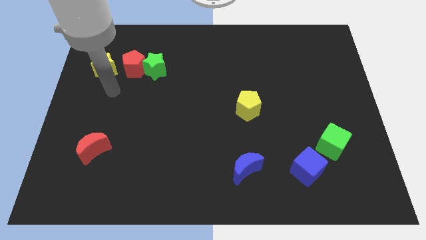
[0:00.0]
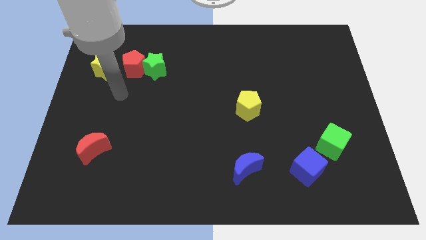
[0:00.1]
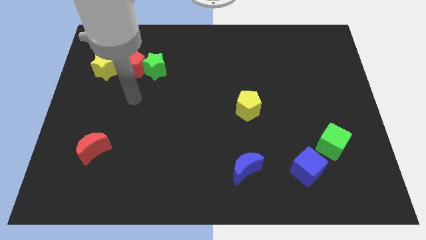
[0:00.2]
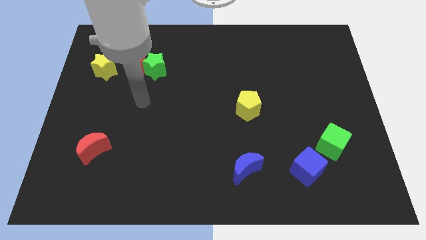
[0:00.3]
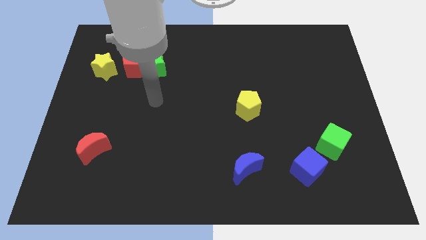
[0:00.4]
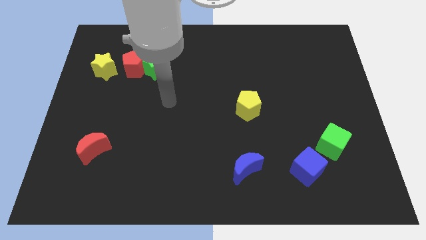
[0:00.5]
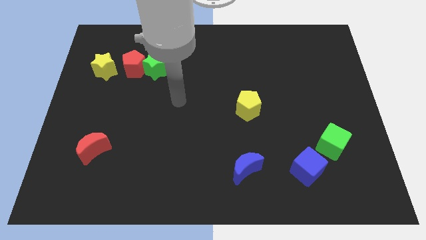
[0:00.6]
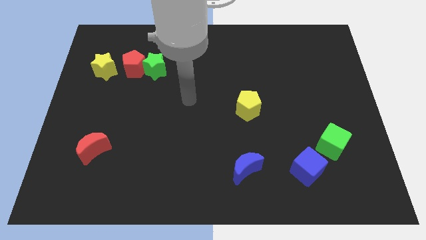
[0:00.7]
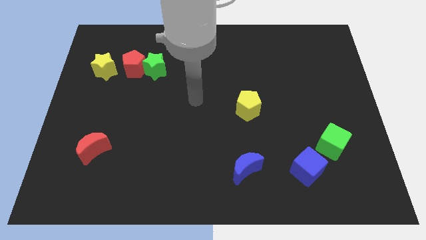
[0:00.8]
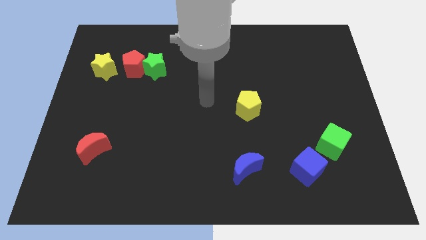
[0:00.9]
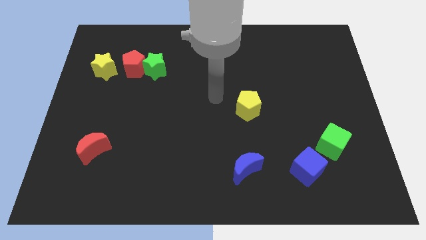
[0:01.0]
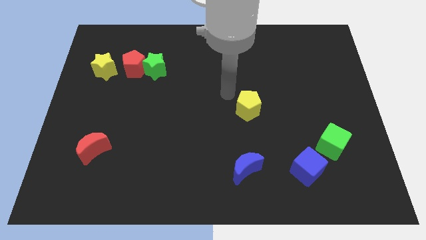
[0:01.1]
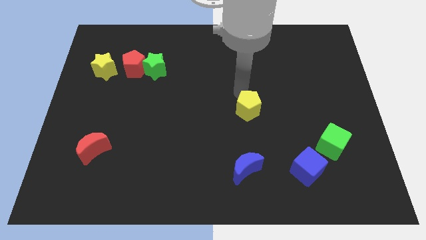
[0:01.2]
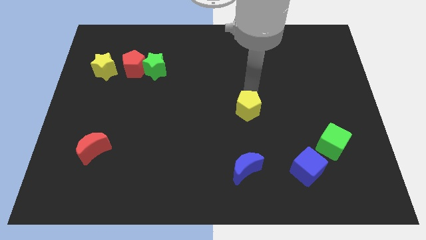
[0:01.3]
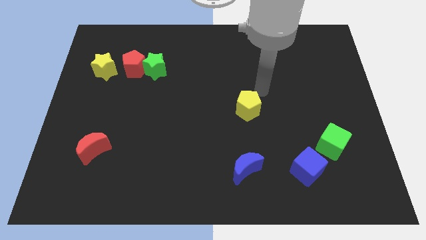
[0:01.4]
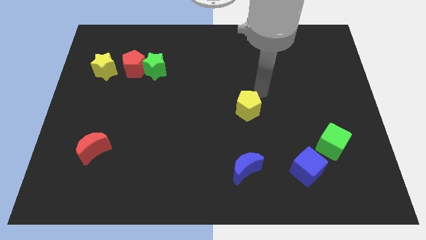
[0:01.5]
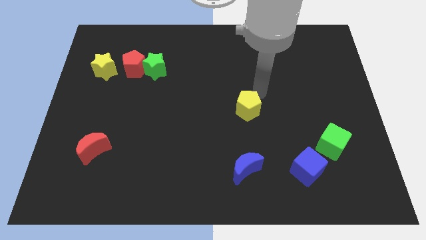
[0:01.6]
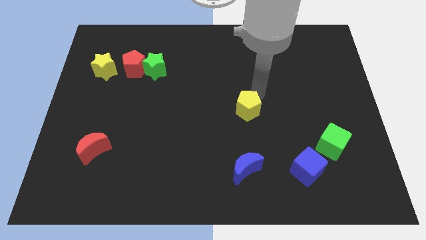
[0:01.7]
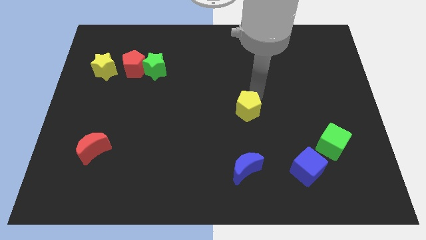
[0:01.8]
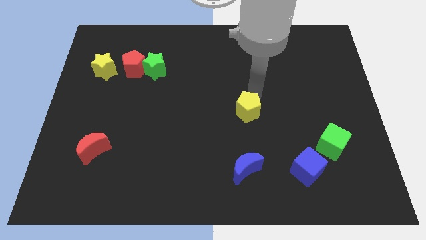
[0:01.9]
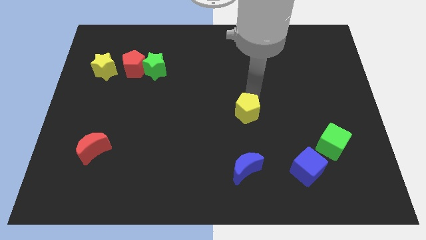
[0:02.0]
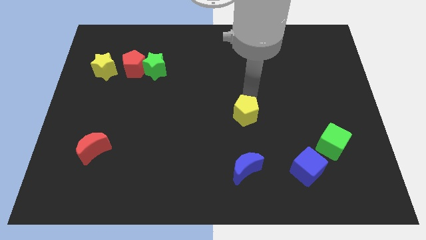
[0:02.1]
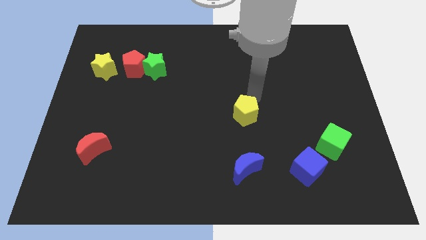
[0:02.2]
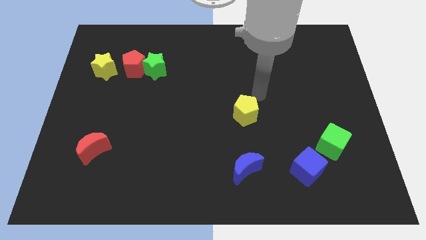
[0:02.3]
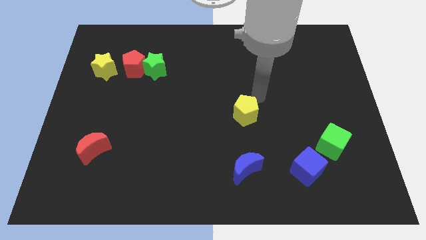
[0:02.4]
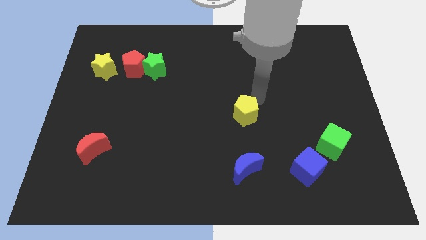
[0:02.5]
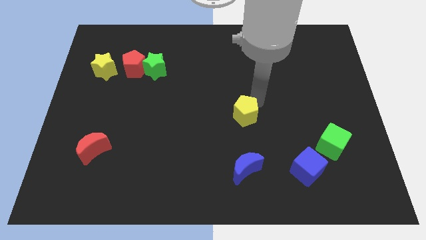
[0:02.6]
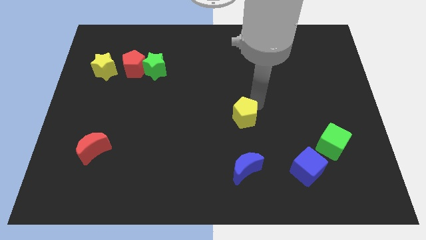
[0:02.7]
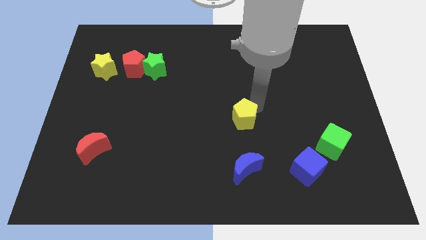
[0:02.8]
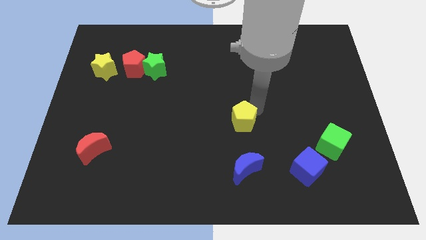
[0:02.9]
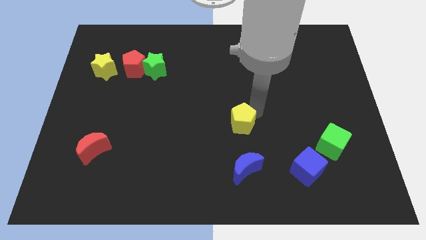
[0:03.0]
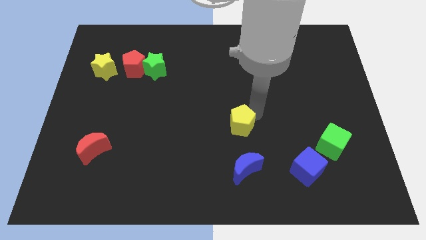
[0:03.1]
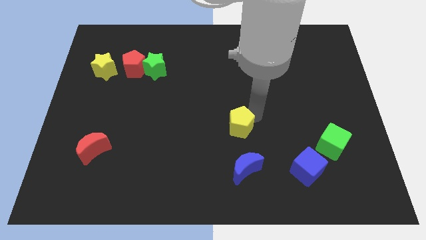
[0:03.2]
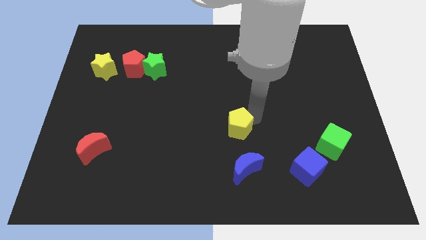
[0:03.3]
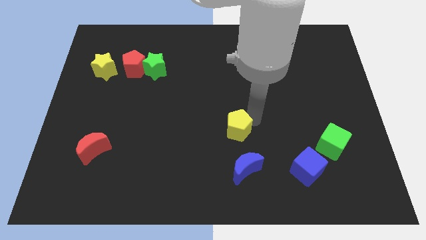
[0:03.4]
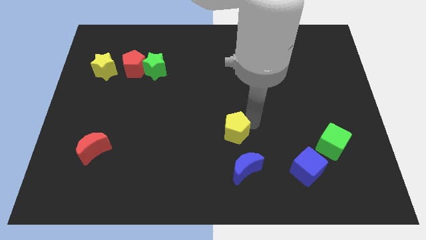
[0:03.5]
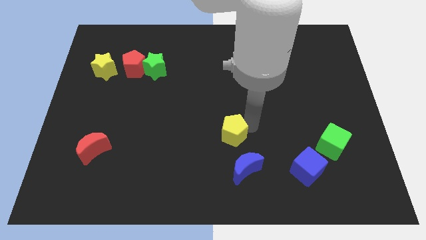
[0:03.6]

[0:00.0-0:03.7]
slightly move the yellow pentagon down and to the left

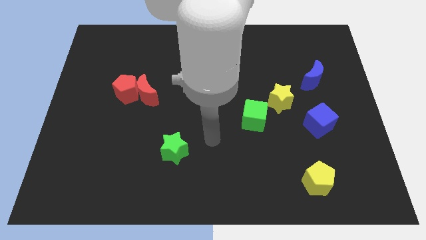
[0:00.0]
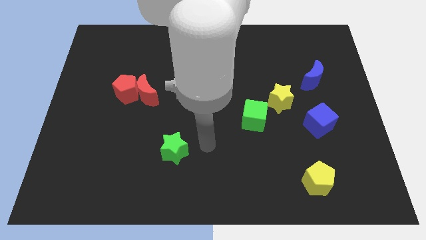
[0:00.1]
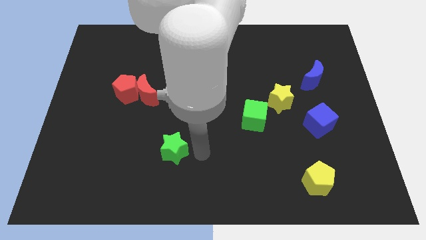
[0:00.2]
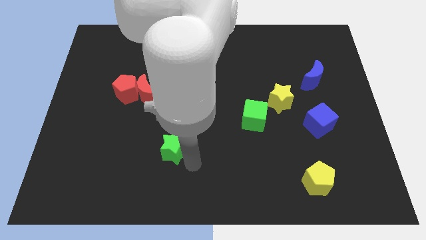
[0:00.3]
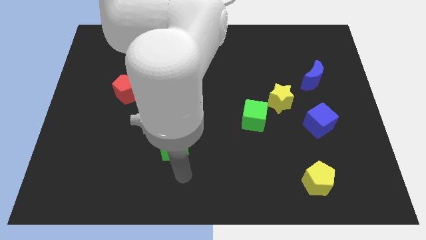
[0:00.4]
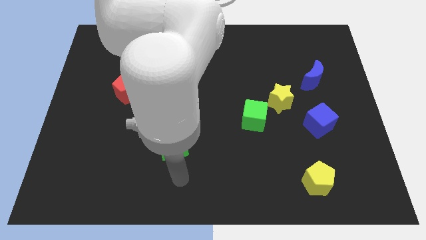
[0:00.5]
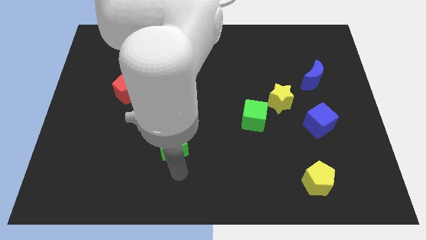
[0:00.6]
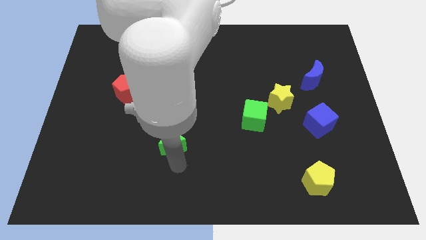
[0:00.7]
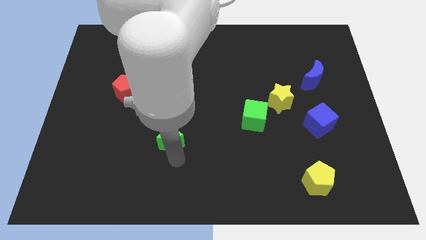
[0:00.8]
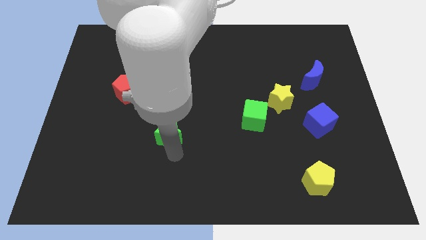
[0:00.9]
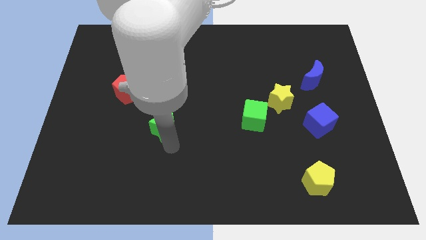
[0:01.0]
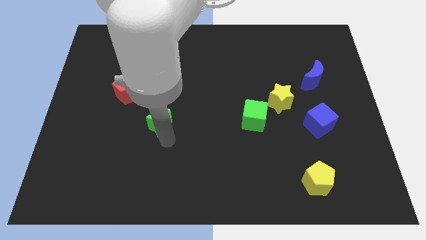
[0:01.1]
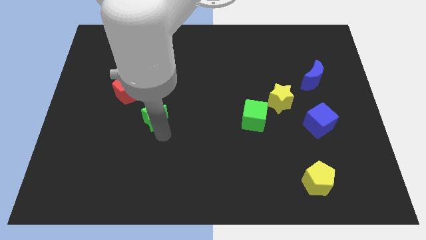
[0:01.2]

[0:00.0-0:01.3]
slide the green star up a little bit

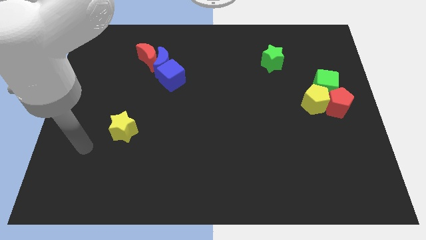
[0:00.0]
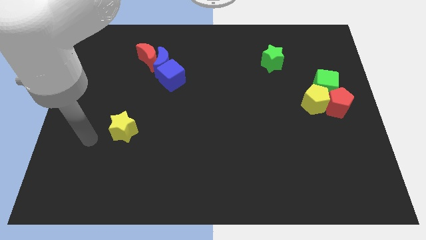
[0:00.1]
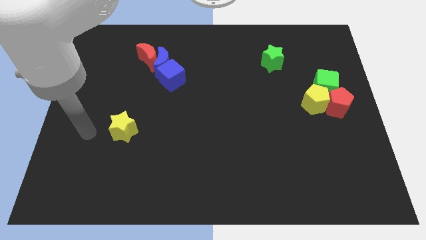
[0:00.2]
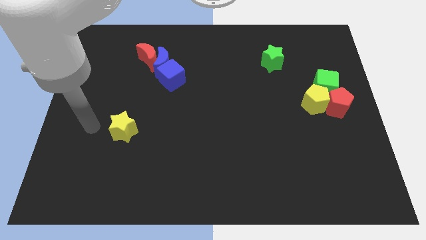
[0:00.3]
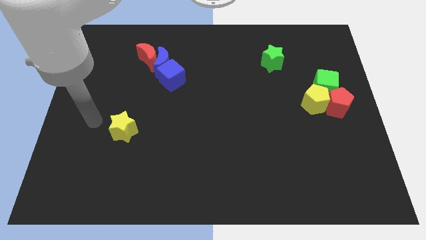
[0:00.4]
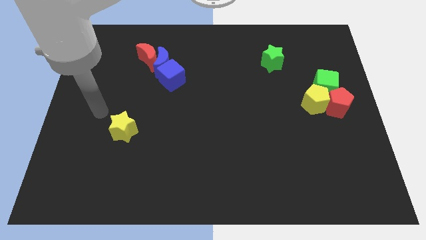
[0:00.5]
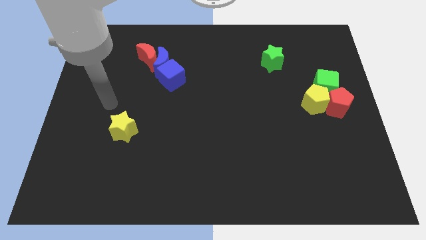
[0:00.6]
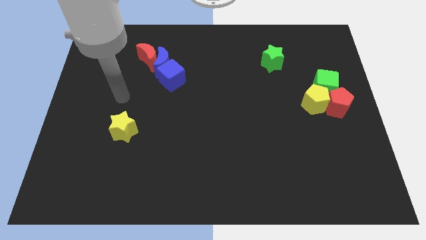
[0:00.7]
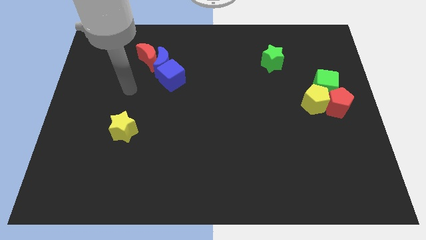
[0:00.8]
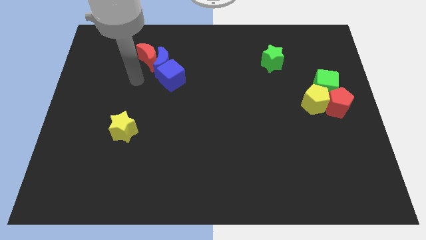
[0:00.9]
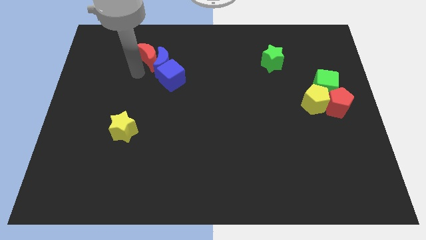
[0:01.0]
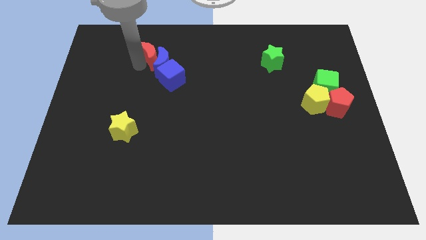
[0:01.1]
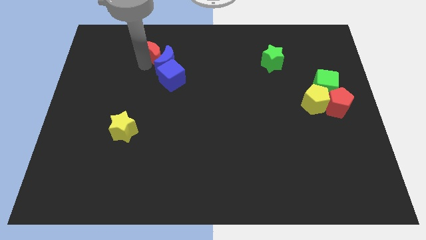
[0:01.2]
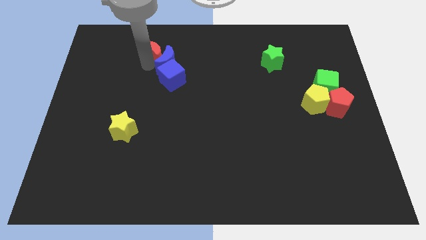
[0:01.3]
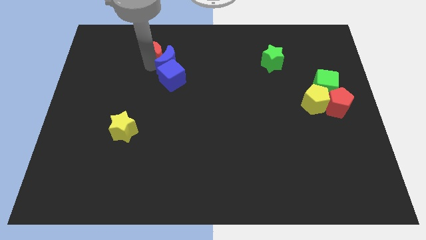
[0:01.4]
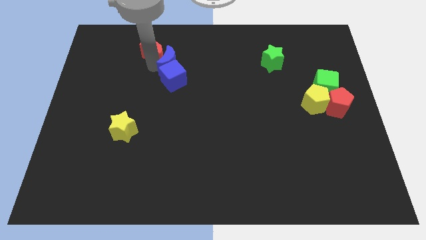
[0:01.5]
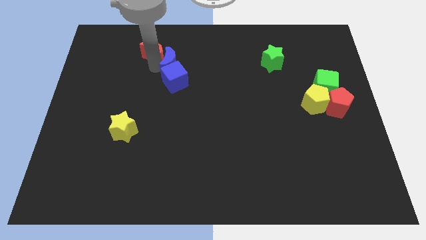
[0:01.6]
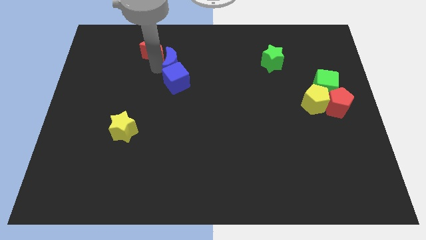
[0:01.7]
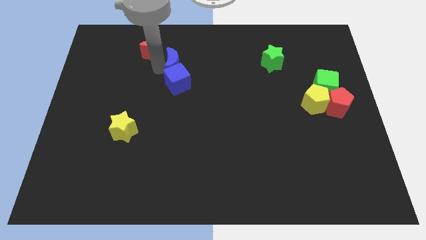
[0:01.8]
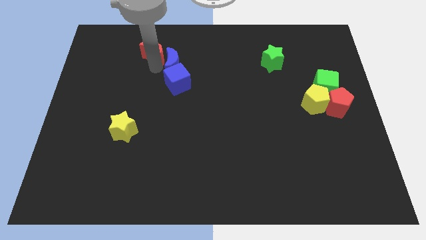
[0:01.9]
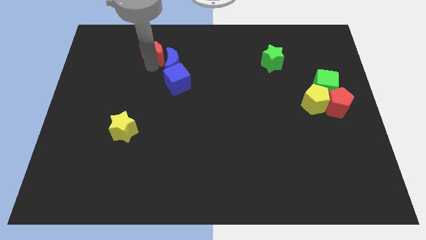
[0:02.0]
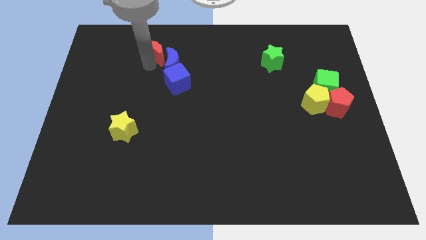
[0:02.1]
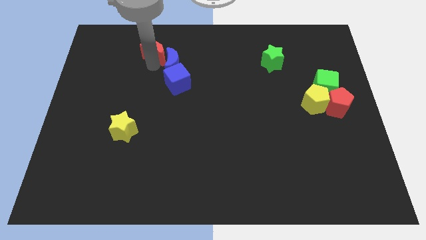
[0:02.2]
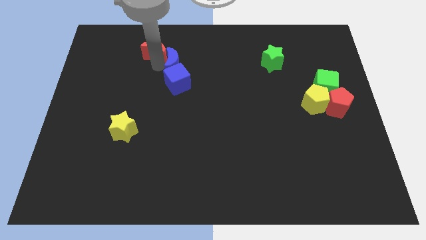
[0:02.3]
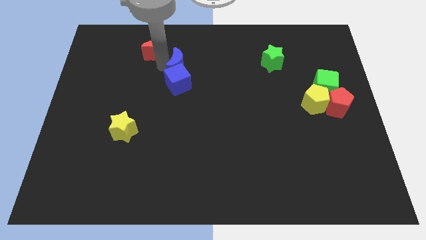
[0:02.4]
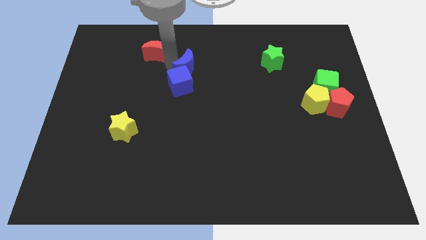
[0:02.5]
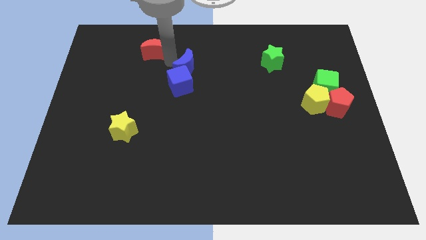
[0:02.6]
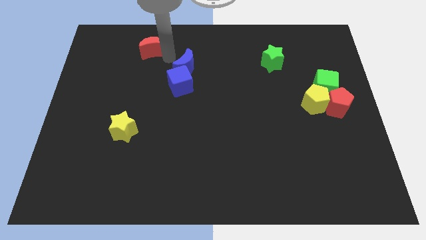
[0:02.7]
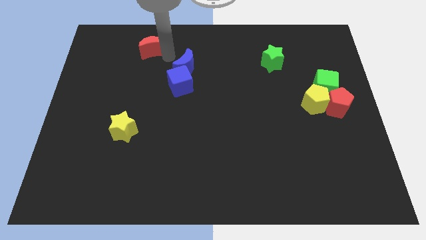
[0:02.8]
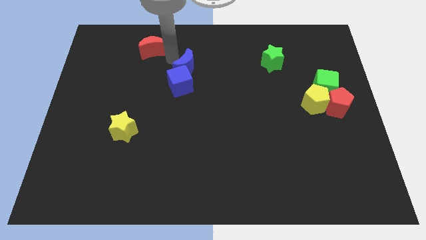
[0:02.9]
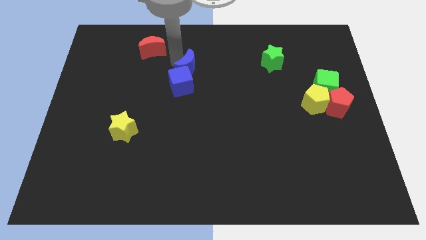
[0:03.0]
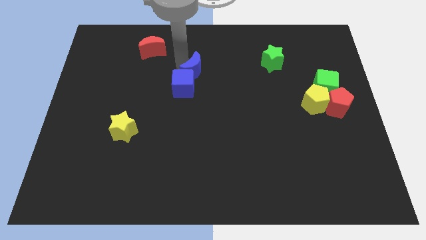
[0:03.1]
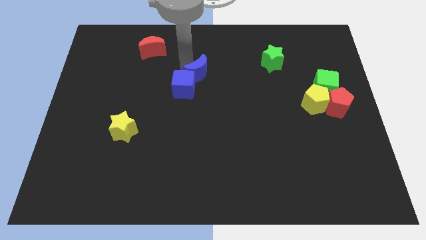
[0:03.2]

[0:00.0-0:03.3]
slightly push the blue moon diagonally down and to the right

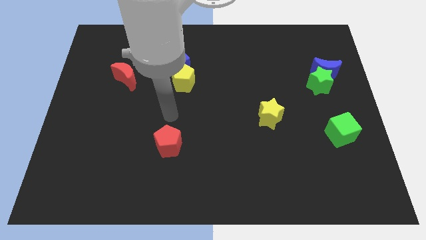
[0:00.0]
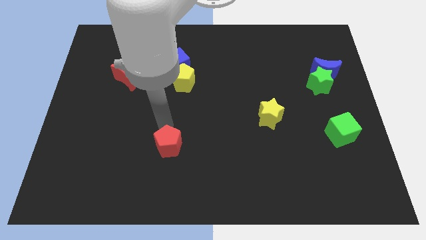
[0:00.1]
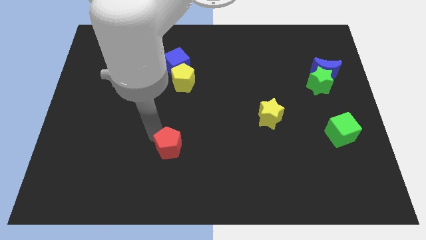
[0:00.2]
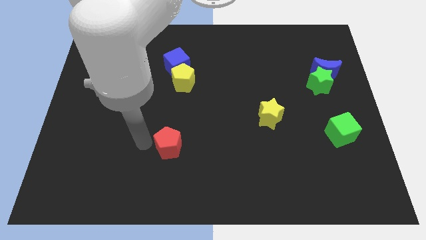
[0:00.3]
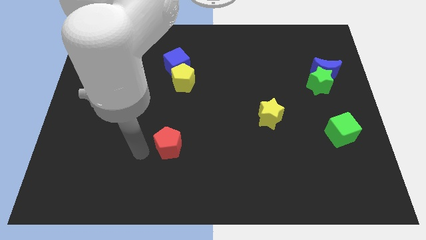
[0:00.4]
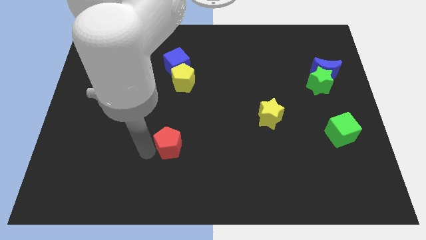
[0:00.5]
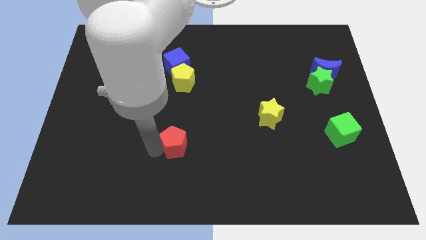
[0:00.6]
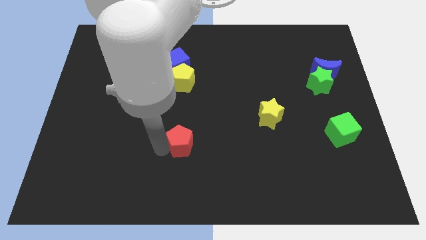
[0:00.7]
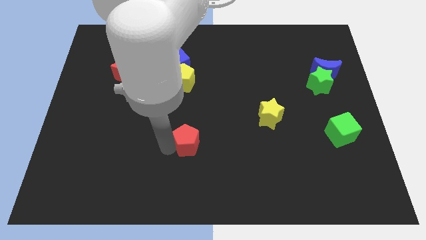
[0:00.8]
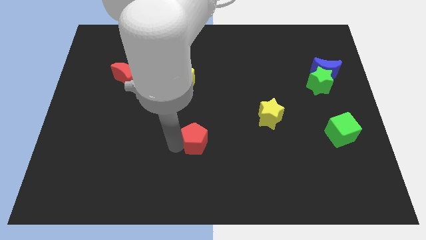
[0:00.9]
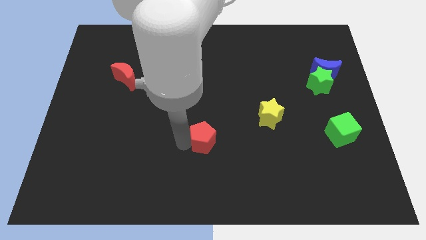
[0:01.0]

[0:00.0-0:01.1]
slightly move the red pentagon right
